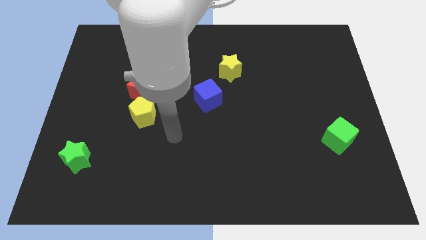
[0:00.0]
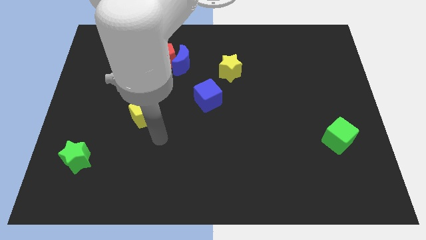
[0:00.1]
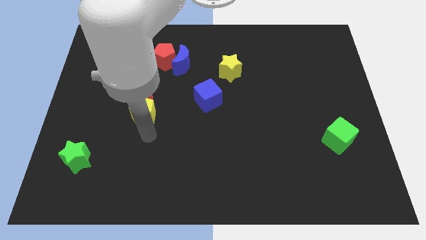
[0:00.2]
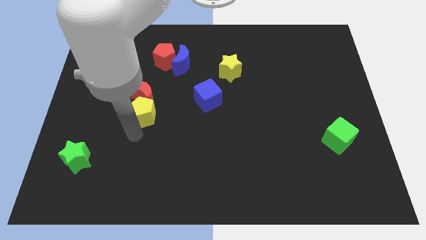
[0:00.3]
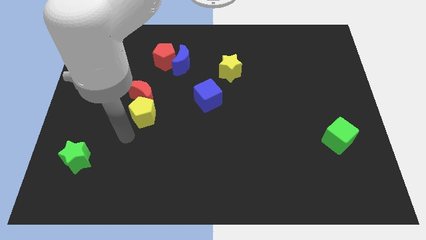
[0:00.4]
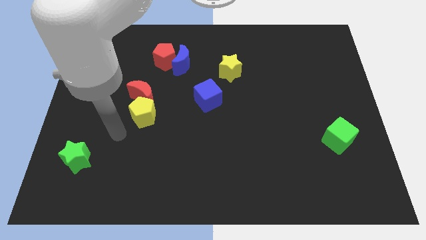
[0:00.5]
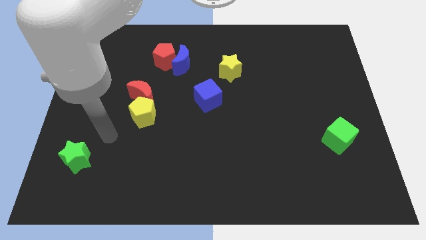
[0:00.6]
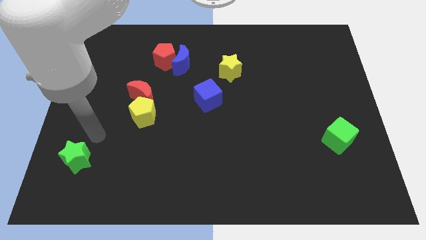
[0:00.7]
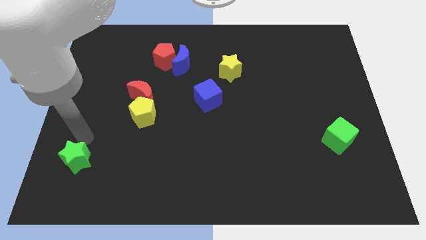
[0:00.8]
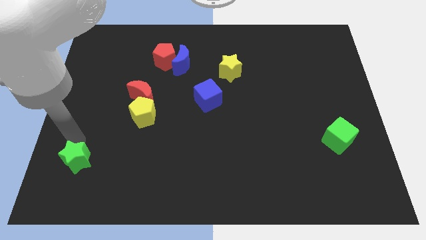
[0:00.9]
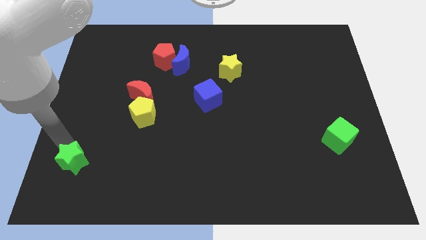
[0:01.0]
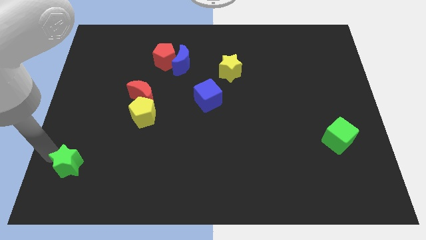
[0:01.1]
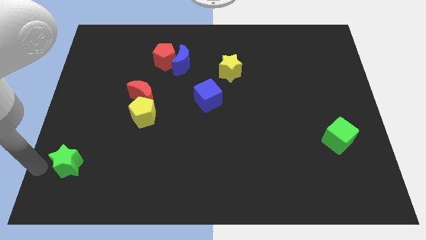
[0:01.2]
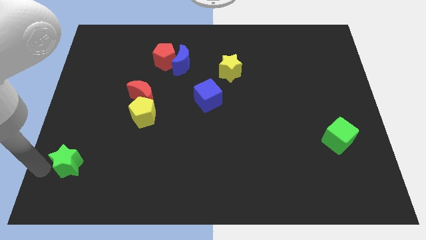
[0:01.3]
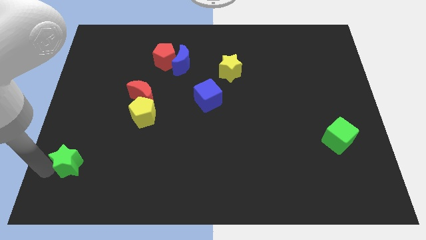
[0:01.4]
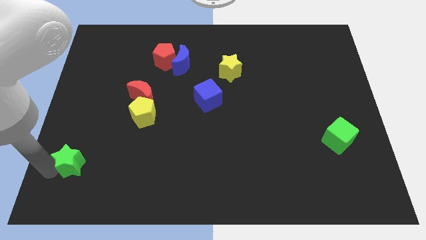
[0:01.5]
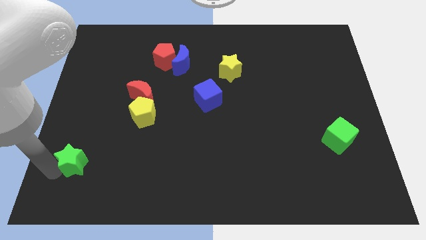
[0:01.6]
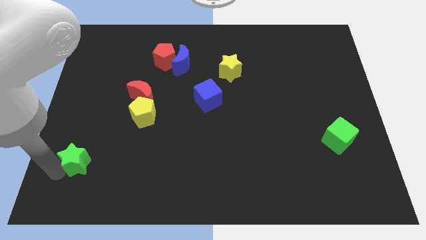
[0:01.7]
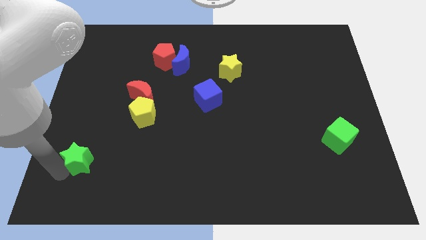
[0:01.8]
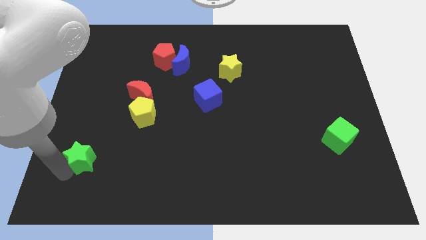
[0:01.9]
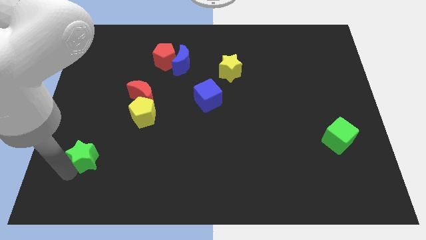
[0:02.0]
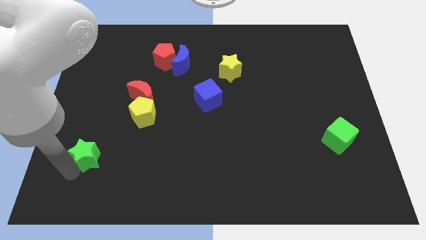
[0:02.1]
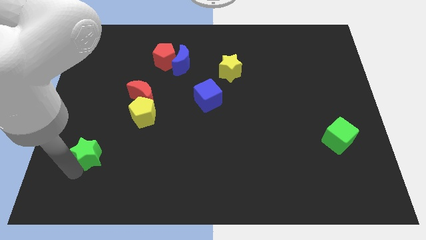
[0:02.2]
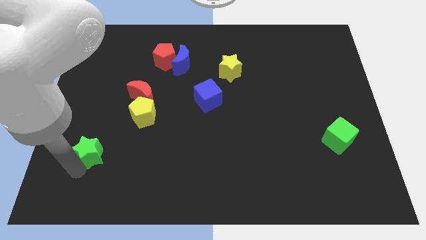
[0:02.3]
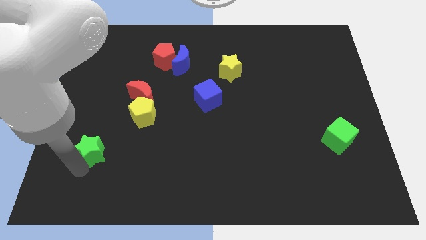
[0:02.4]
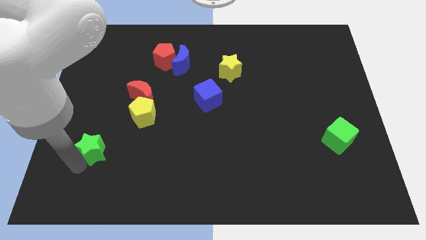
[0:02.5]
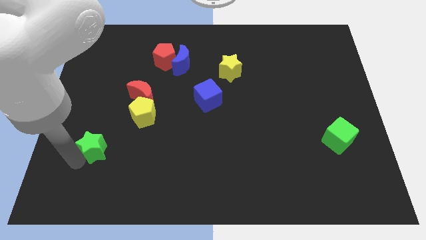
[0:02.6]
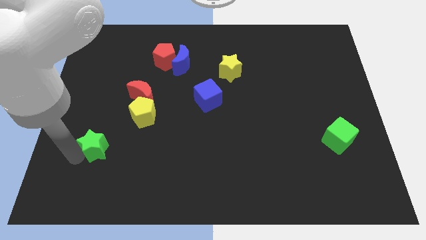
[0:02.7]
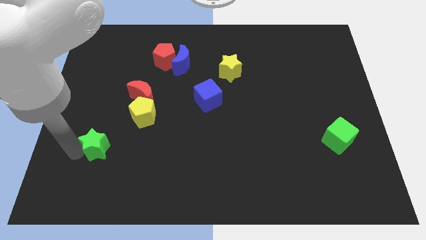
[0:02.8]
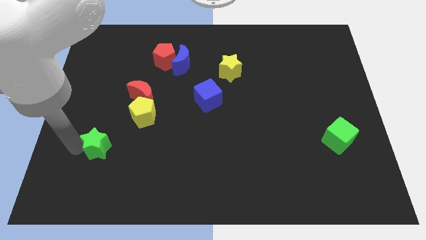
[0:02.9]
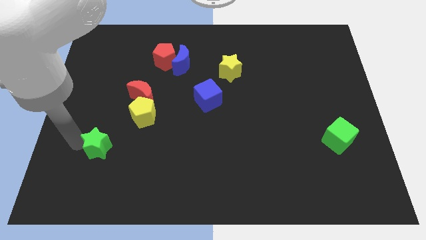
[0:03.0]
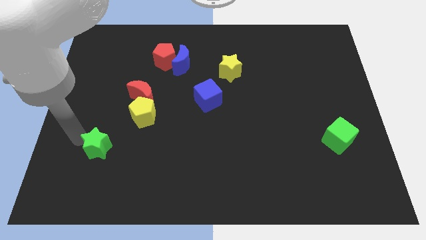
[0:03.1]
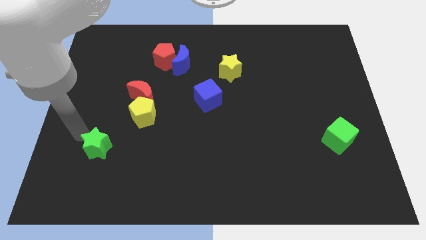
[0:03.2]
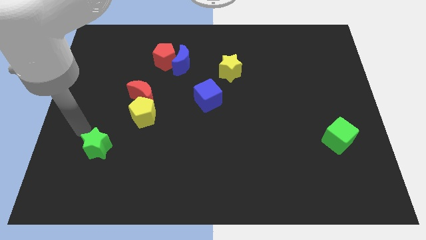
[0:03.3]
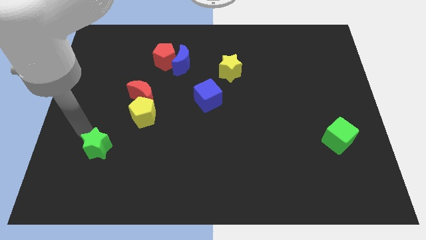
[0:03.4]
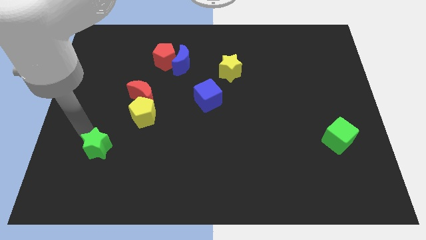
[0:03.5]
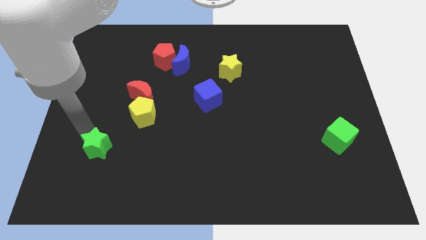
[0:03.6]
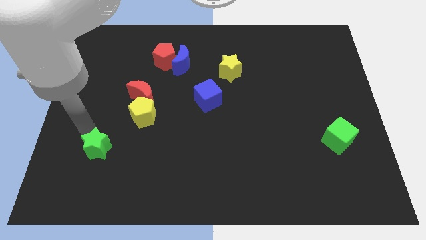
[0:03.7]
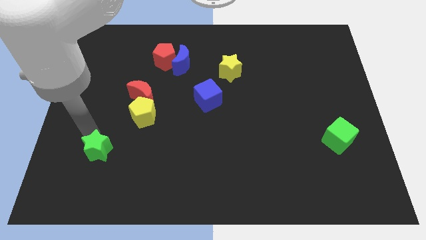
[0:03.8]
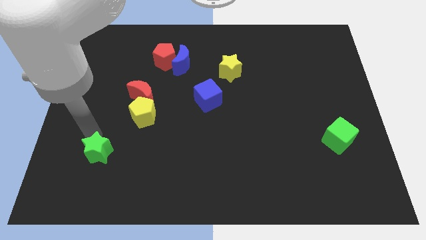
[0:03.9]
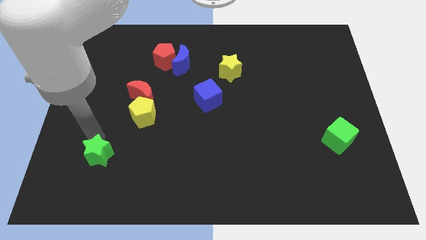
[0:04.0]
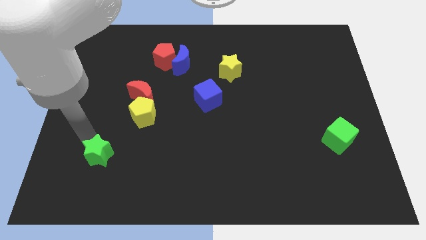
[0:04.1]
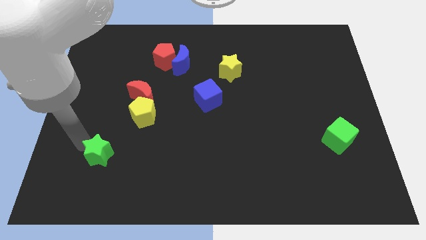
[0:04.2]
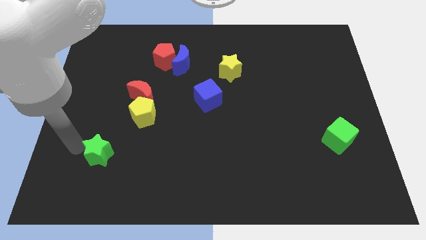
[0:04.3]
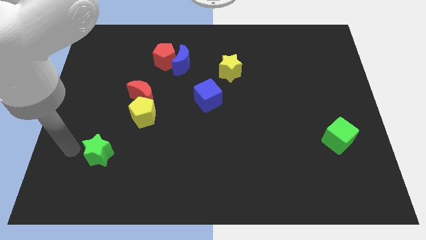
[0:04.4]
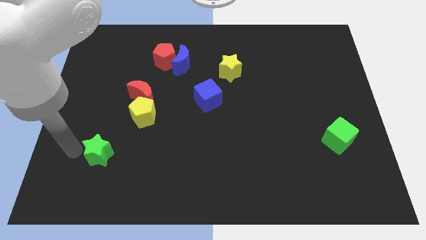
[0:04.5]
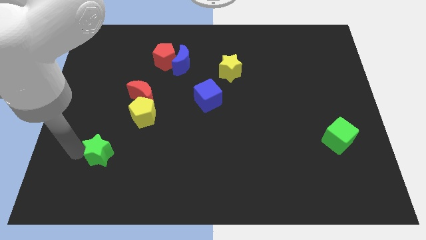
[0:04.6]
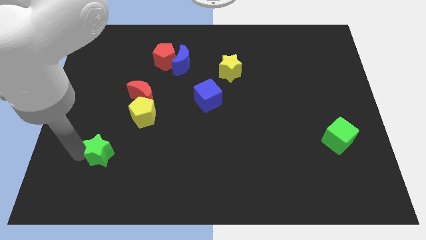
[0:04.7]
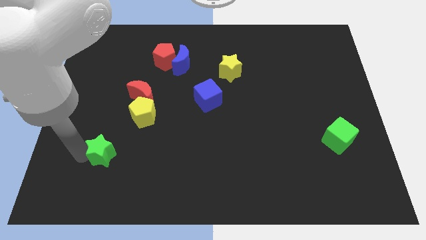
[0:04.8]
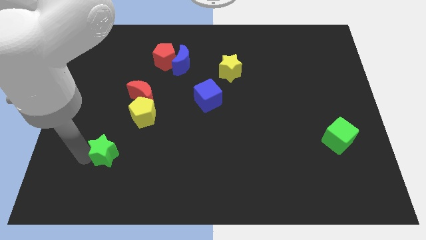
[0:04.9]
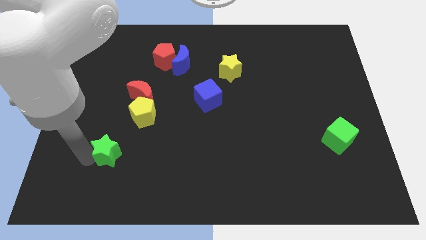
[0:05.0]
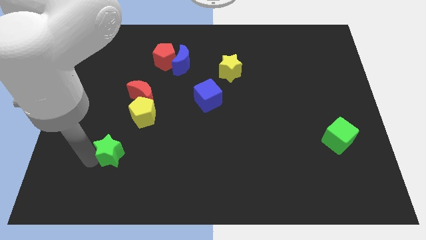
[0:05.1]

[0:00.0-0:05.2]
slightly push the green star right

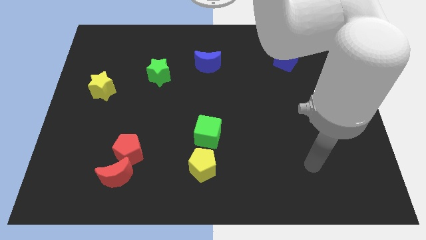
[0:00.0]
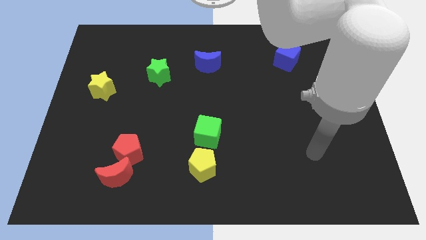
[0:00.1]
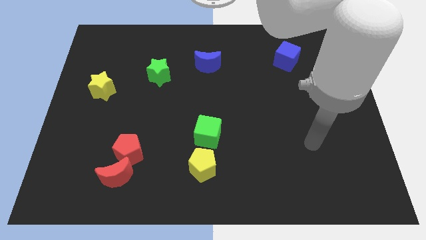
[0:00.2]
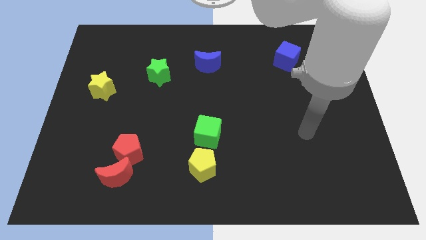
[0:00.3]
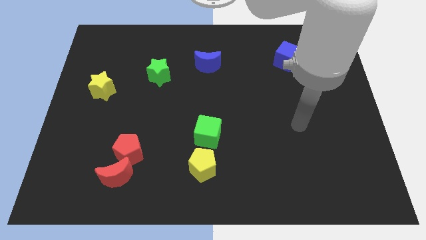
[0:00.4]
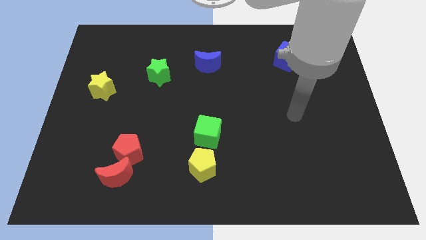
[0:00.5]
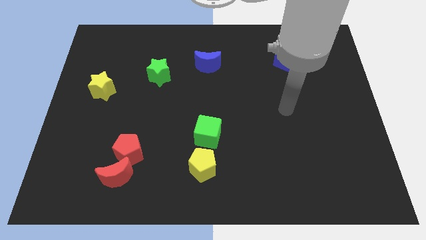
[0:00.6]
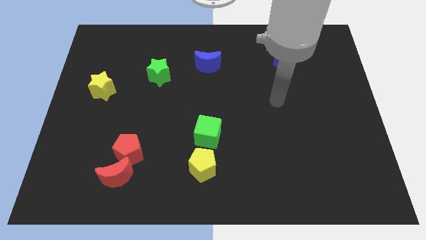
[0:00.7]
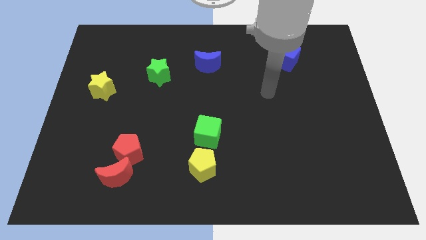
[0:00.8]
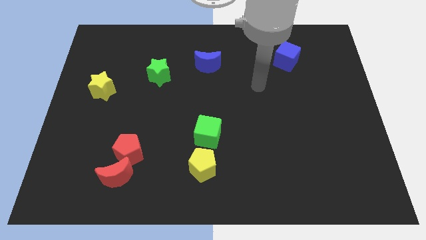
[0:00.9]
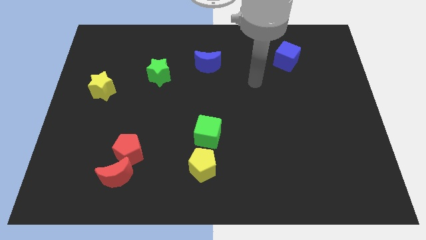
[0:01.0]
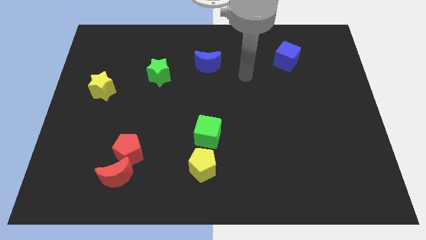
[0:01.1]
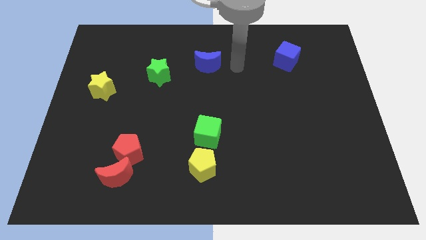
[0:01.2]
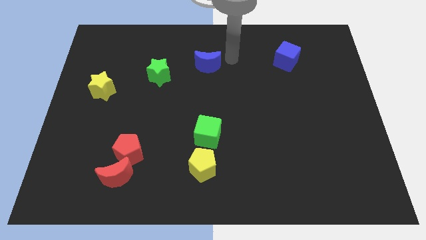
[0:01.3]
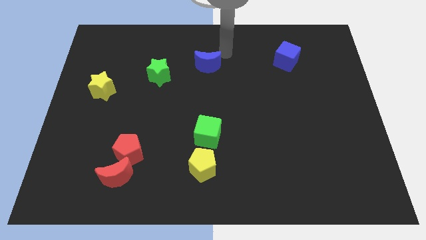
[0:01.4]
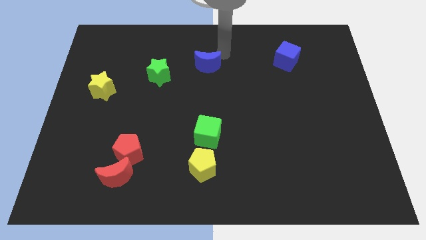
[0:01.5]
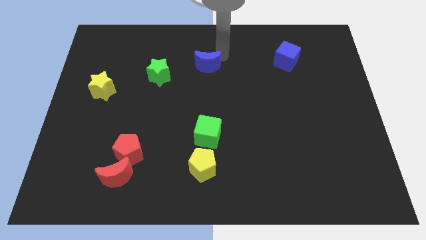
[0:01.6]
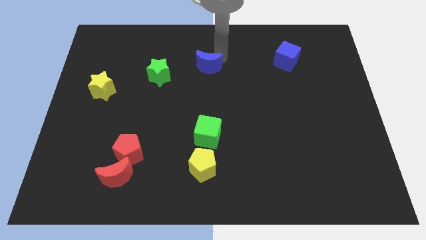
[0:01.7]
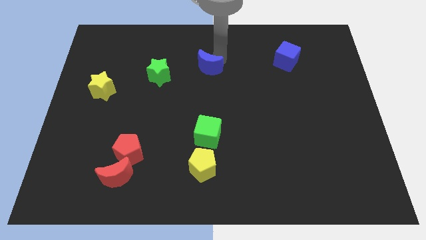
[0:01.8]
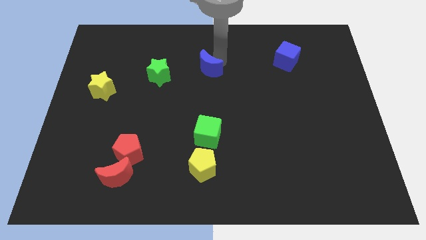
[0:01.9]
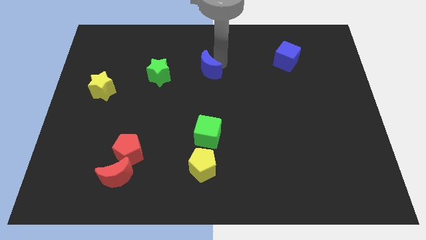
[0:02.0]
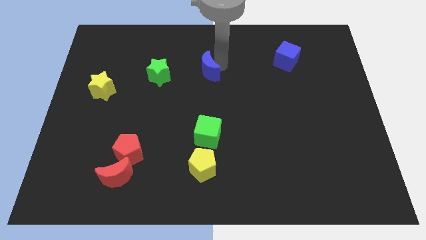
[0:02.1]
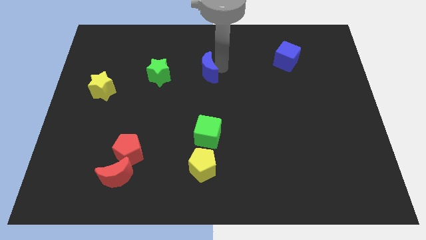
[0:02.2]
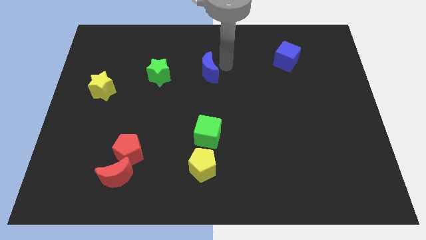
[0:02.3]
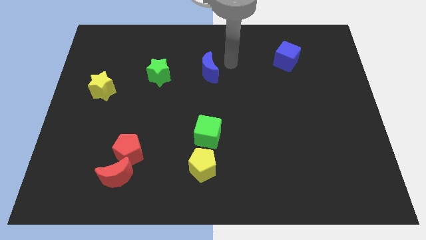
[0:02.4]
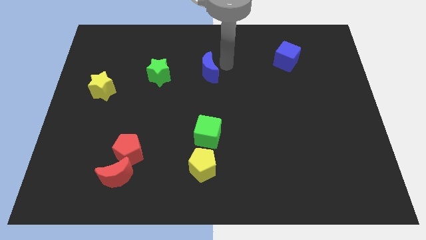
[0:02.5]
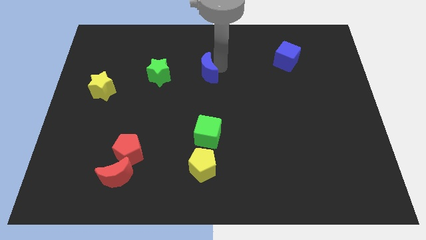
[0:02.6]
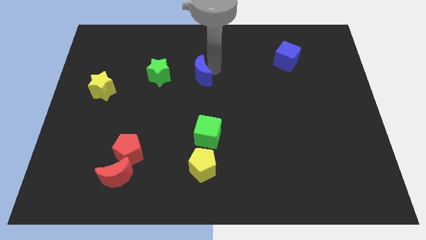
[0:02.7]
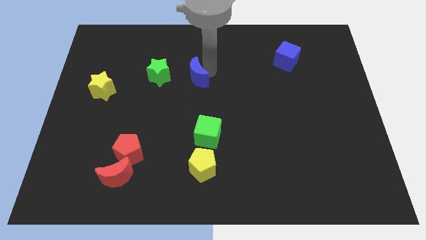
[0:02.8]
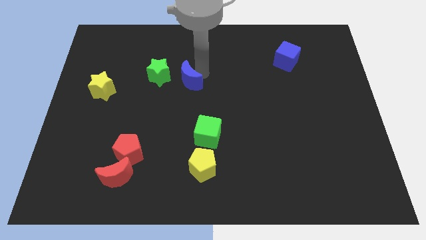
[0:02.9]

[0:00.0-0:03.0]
slide the blue moon down and to the left diagonally a bit
